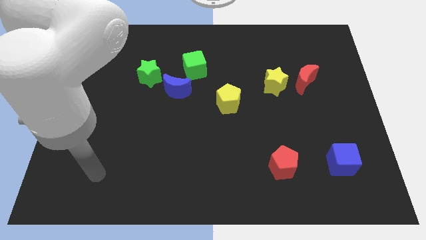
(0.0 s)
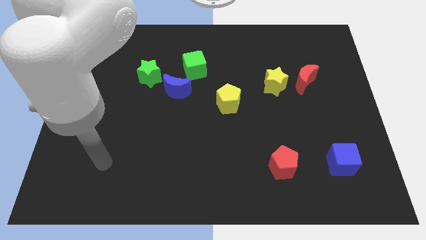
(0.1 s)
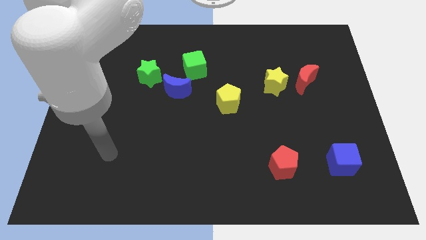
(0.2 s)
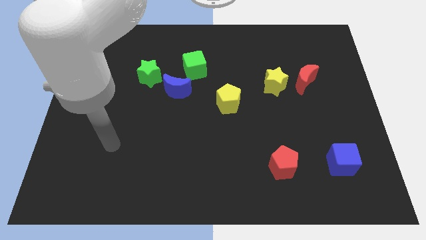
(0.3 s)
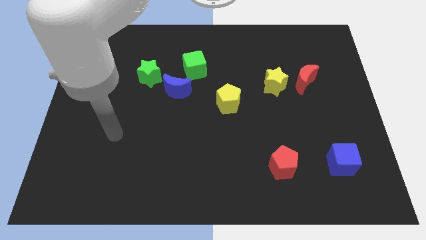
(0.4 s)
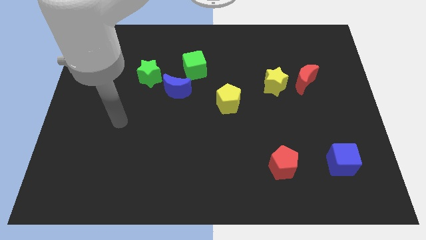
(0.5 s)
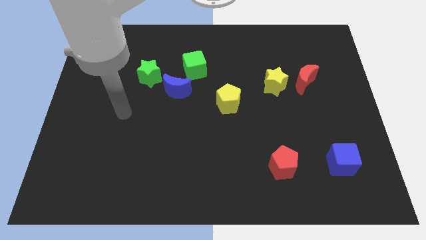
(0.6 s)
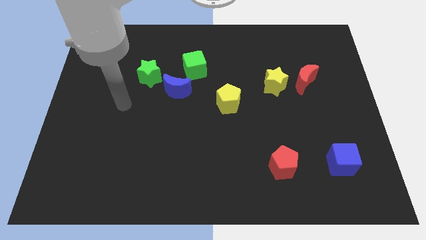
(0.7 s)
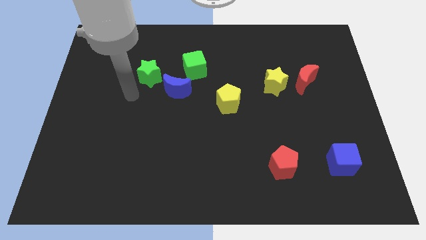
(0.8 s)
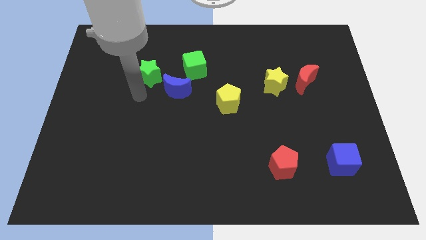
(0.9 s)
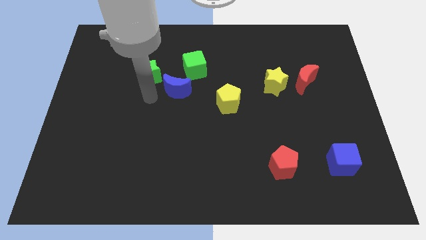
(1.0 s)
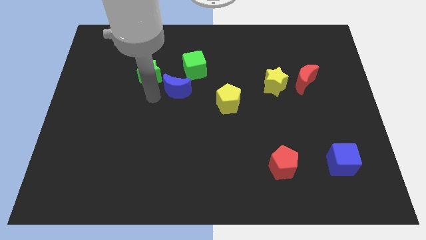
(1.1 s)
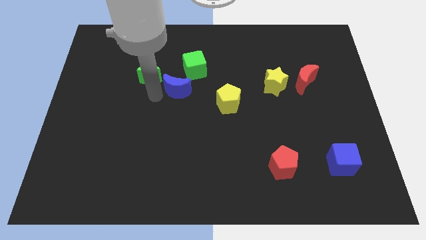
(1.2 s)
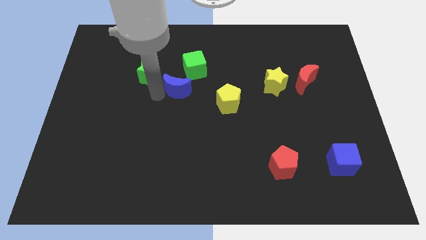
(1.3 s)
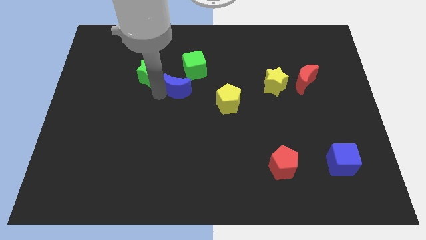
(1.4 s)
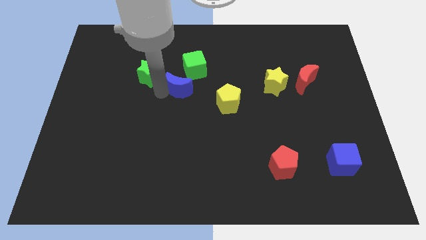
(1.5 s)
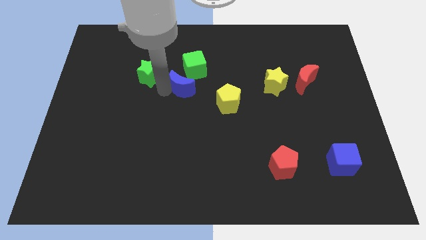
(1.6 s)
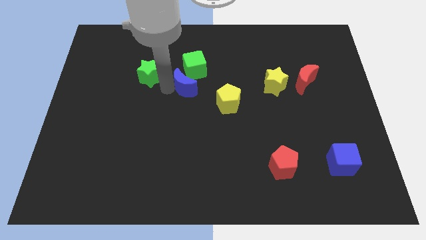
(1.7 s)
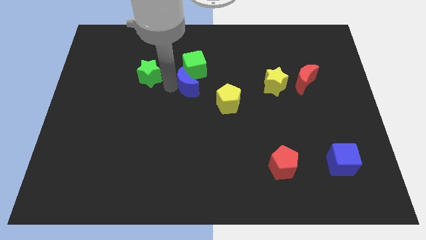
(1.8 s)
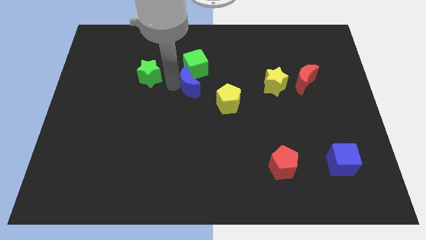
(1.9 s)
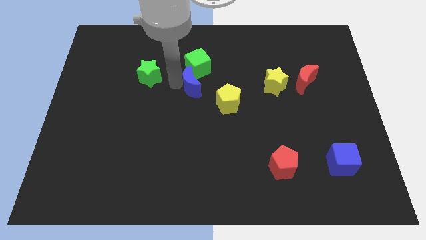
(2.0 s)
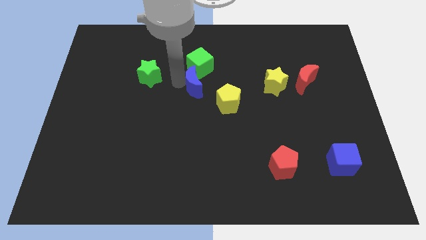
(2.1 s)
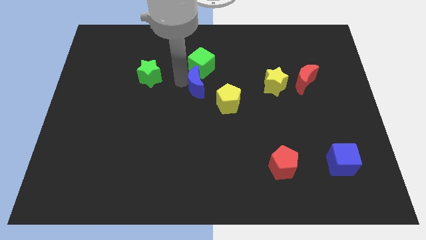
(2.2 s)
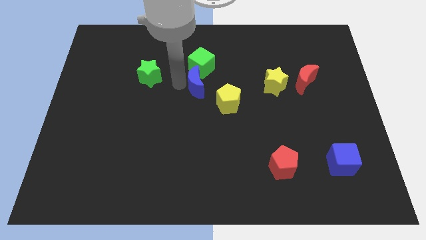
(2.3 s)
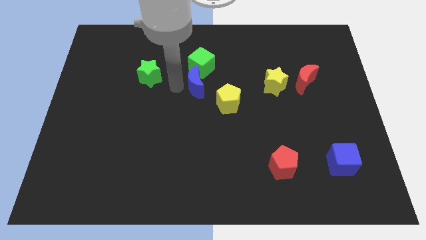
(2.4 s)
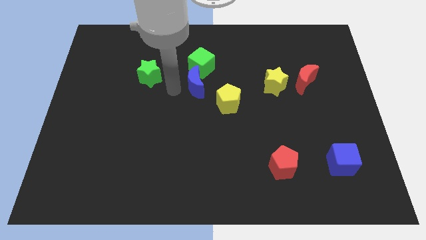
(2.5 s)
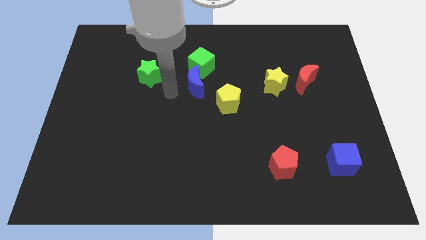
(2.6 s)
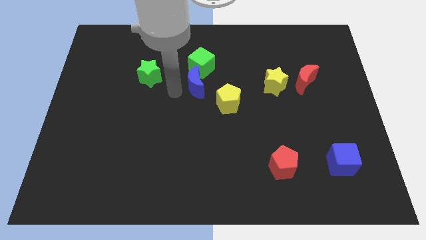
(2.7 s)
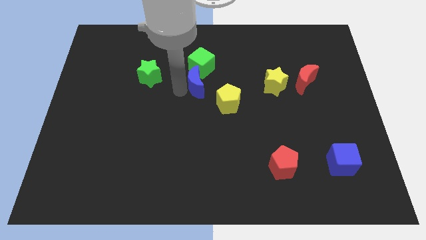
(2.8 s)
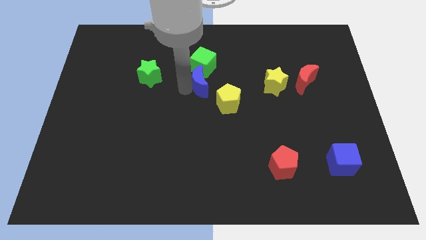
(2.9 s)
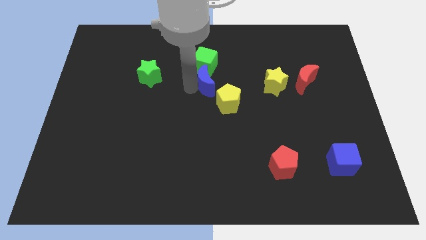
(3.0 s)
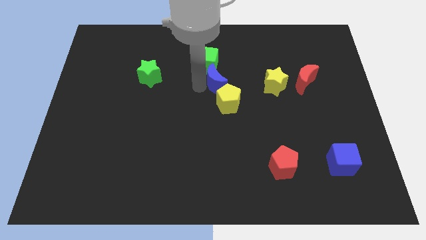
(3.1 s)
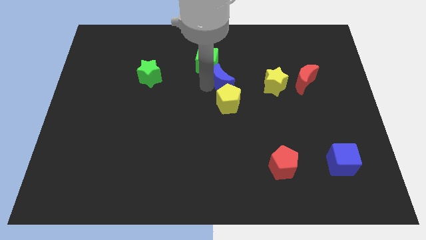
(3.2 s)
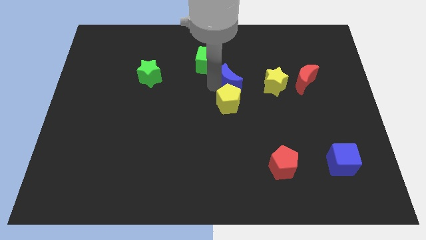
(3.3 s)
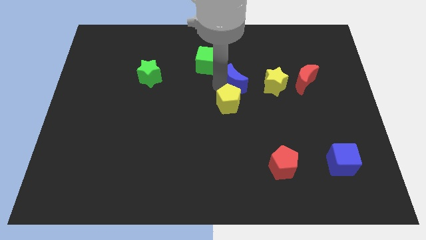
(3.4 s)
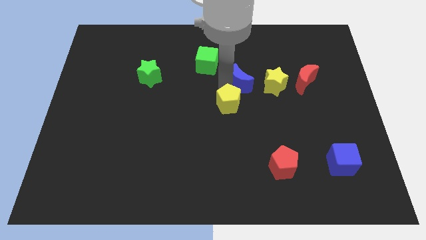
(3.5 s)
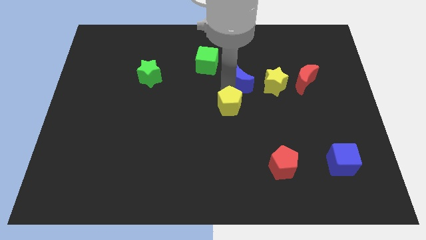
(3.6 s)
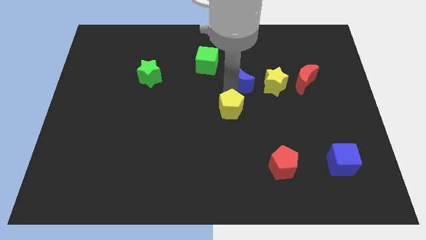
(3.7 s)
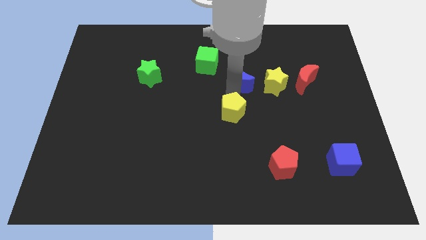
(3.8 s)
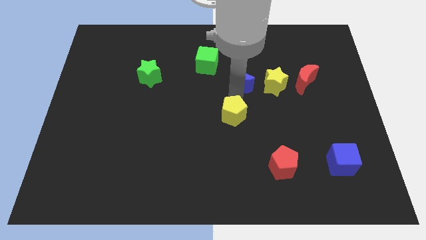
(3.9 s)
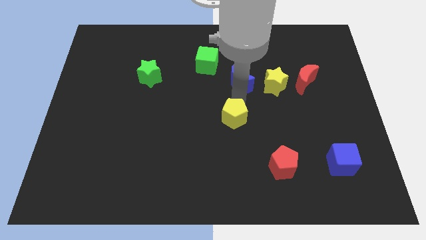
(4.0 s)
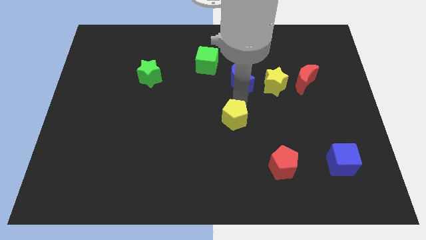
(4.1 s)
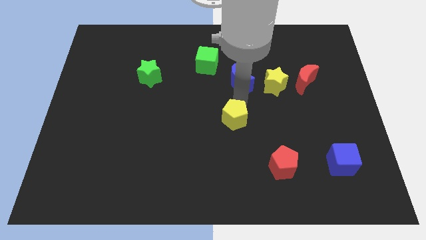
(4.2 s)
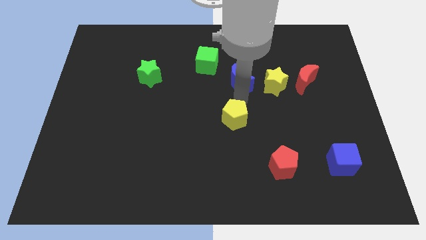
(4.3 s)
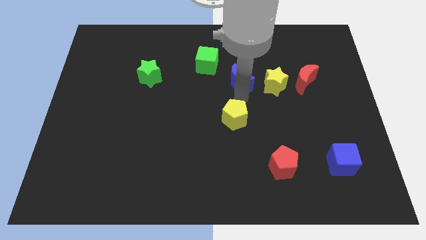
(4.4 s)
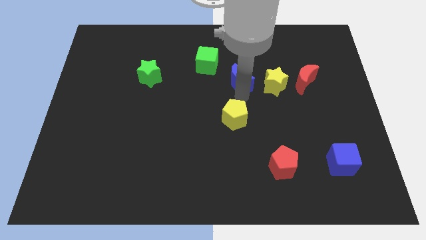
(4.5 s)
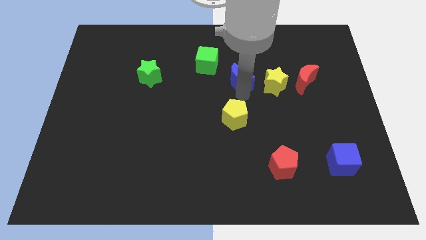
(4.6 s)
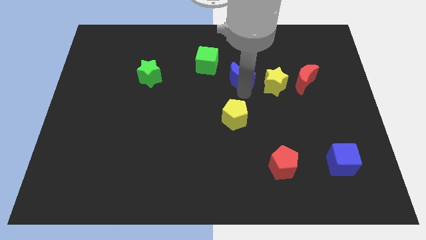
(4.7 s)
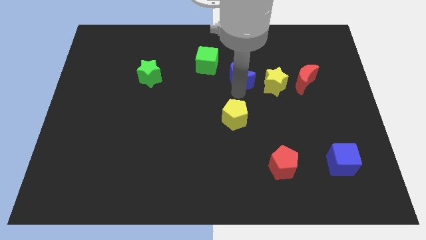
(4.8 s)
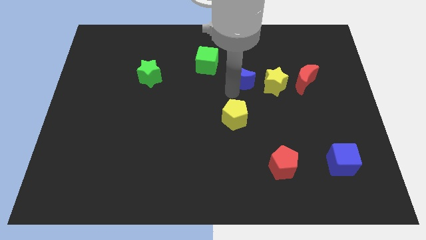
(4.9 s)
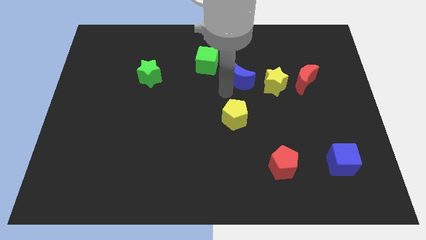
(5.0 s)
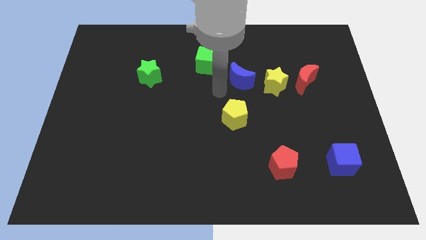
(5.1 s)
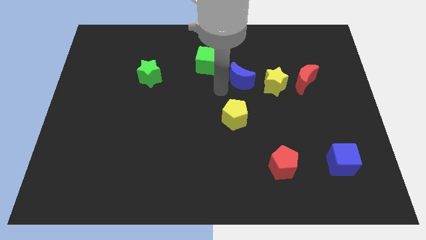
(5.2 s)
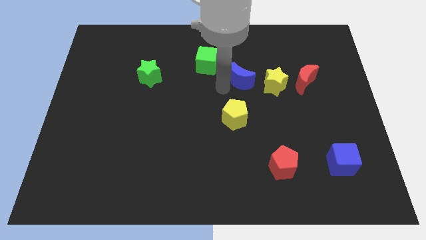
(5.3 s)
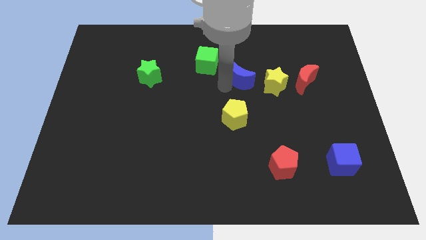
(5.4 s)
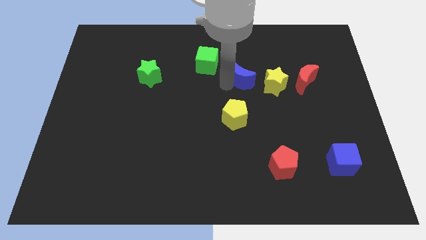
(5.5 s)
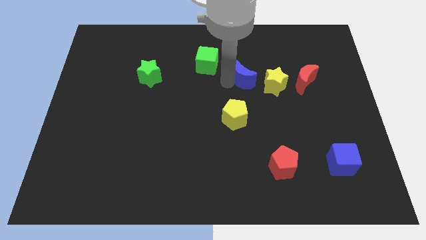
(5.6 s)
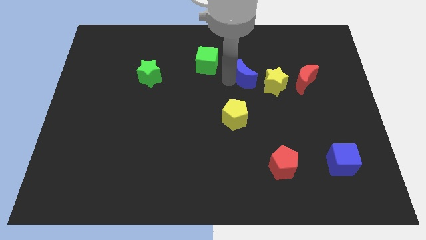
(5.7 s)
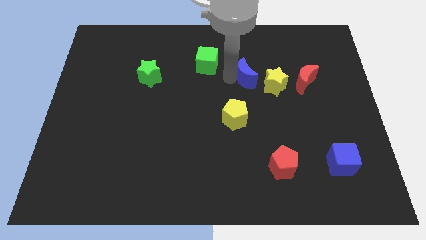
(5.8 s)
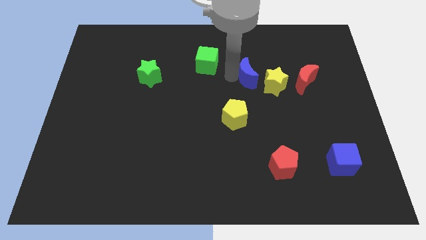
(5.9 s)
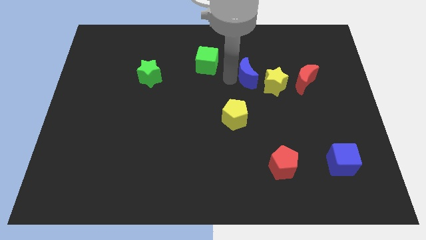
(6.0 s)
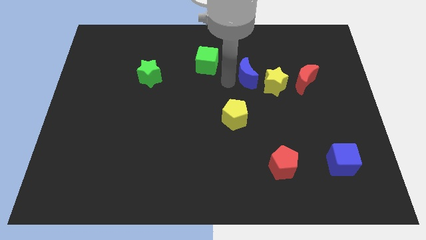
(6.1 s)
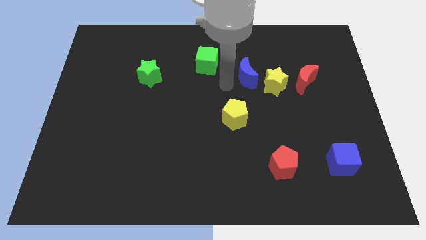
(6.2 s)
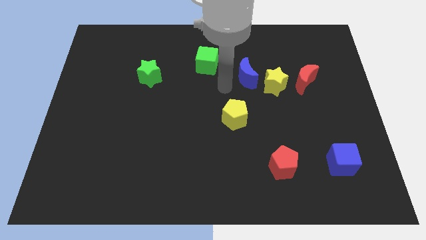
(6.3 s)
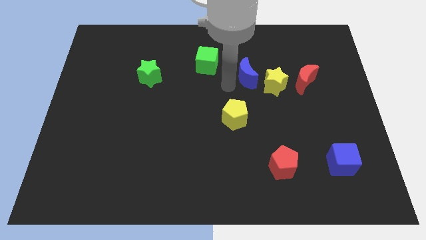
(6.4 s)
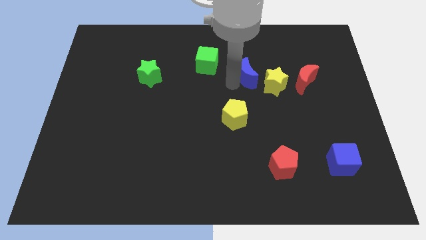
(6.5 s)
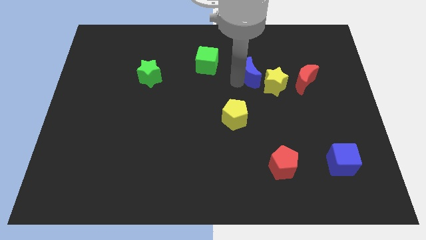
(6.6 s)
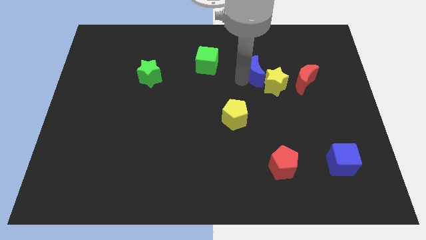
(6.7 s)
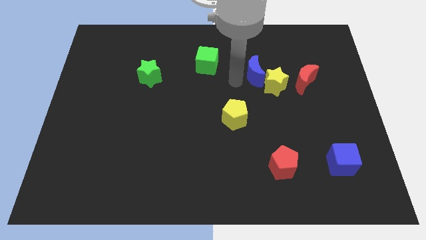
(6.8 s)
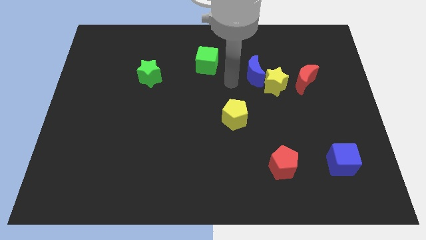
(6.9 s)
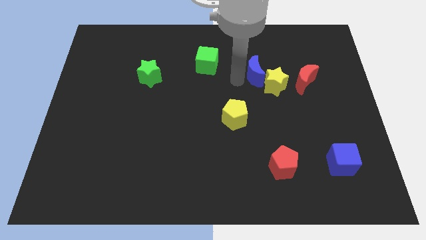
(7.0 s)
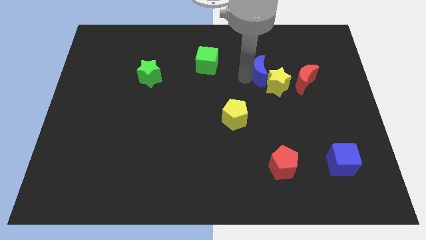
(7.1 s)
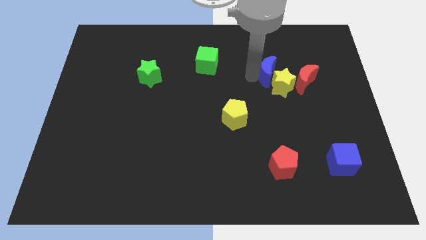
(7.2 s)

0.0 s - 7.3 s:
push the blue moon diagonally up and to the left of the red moon
